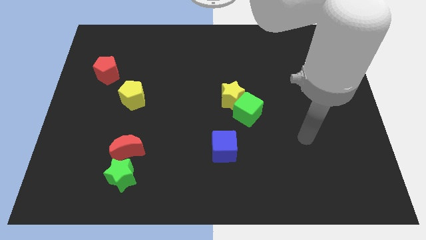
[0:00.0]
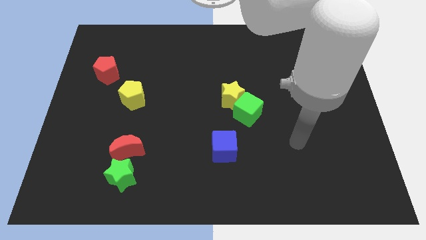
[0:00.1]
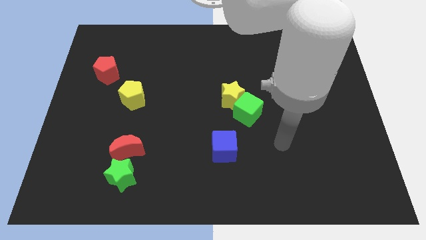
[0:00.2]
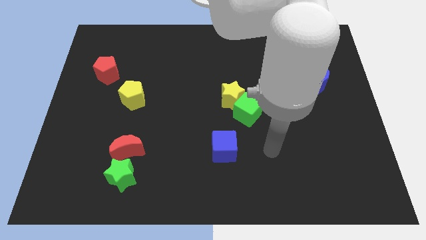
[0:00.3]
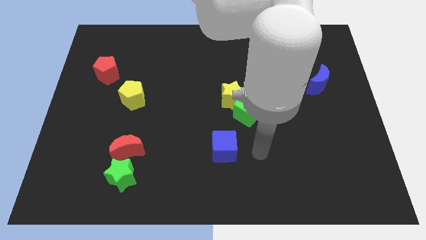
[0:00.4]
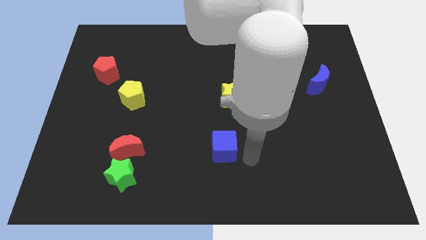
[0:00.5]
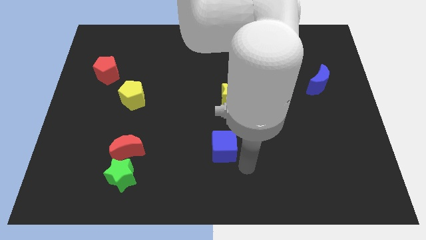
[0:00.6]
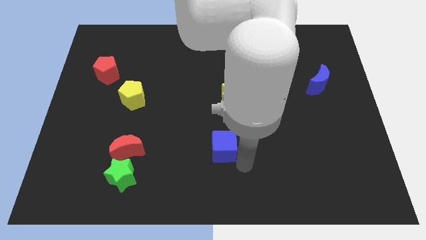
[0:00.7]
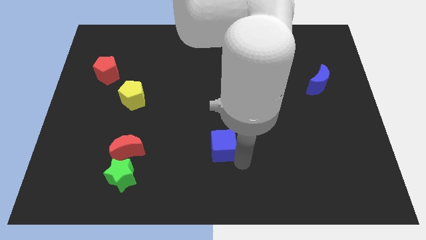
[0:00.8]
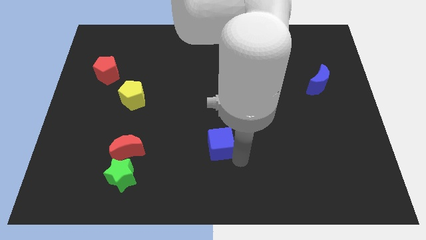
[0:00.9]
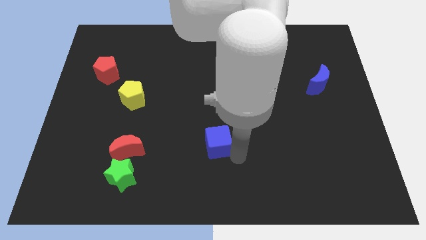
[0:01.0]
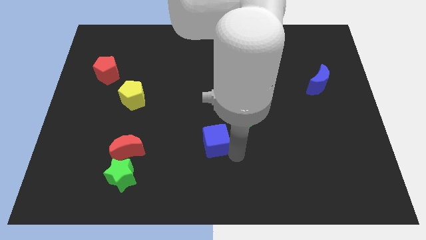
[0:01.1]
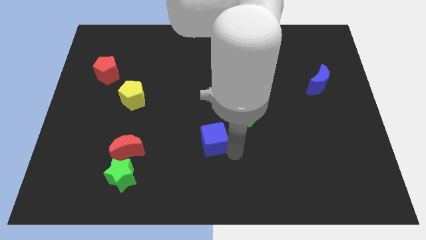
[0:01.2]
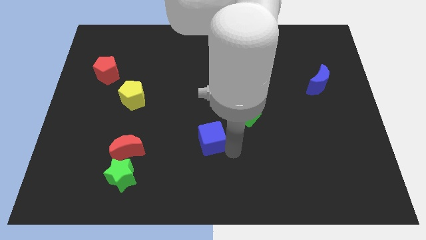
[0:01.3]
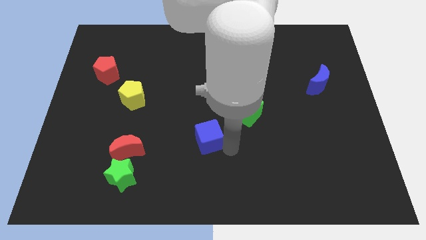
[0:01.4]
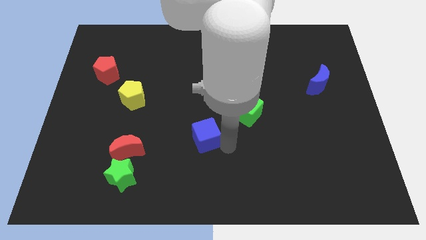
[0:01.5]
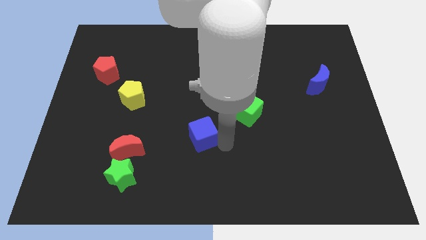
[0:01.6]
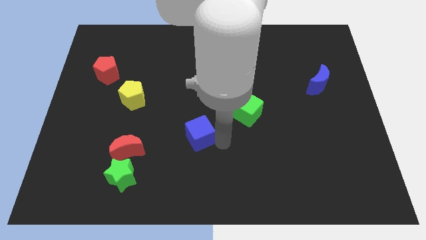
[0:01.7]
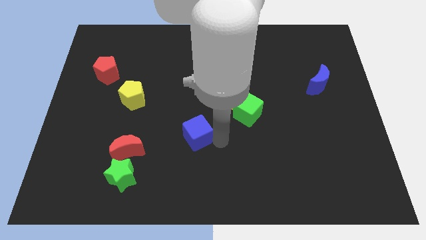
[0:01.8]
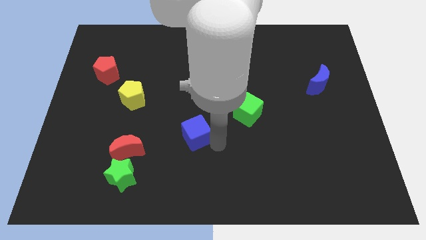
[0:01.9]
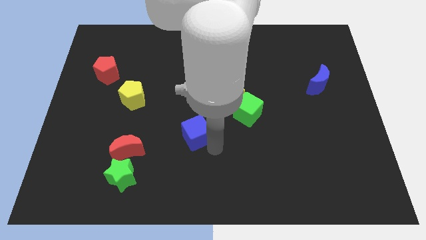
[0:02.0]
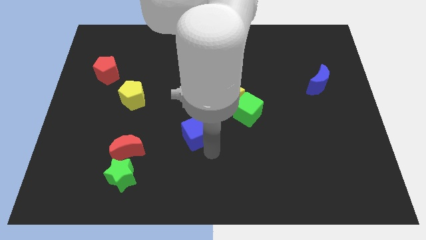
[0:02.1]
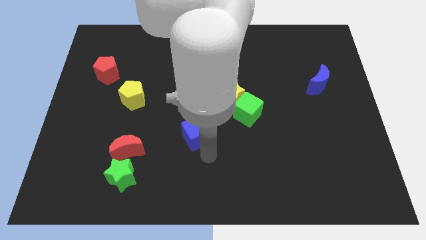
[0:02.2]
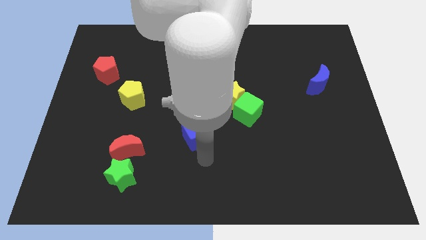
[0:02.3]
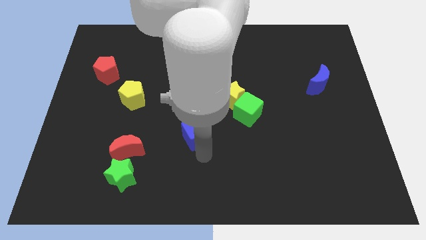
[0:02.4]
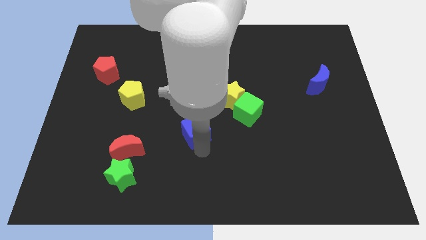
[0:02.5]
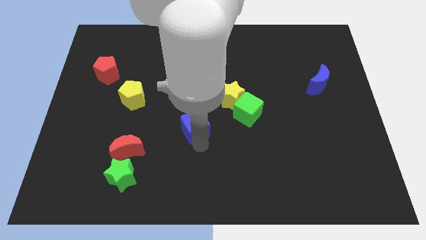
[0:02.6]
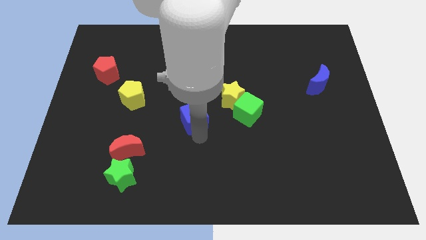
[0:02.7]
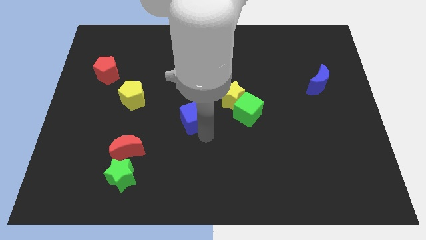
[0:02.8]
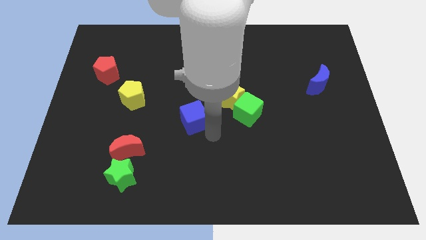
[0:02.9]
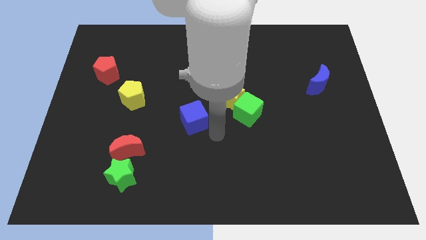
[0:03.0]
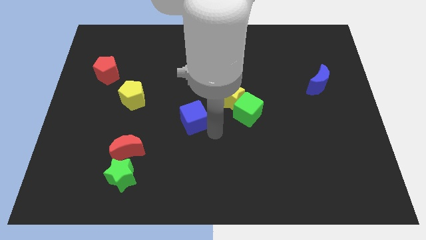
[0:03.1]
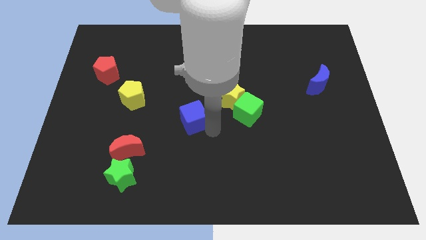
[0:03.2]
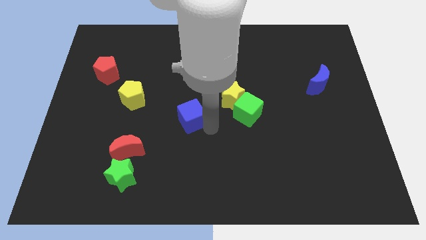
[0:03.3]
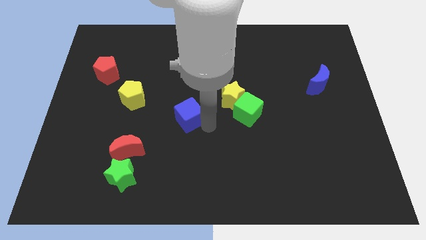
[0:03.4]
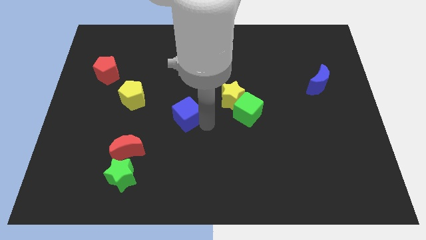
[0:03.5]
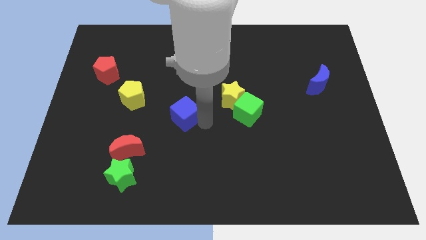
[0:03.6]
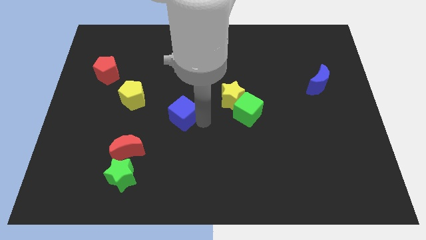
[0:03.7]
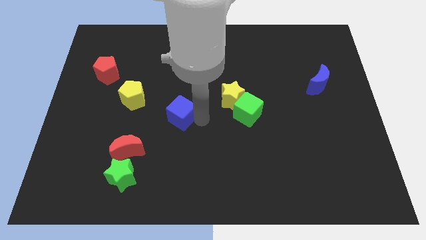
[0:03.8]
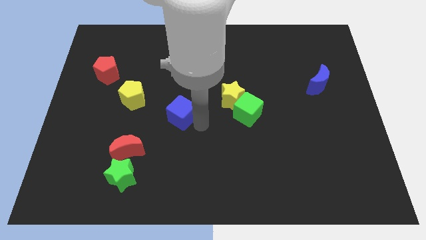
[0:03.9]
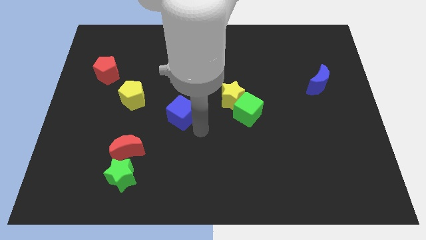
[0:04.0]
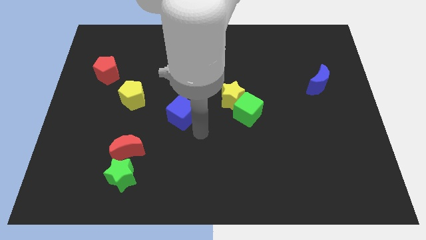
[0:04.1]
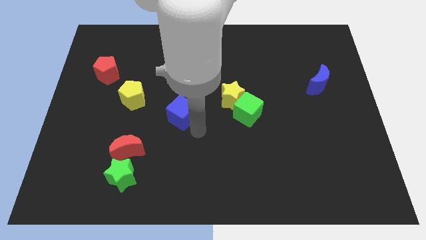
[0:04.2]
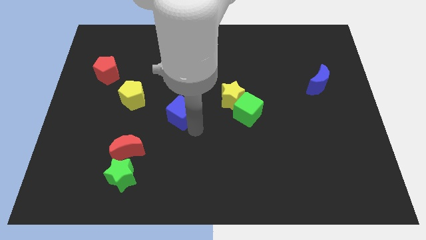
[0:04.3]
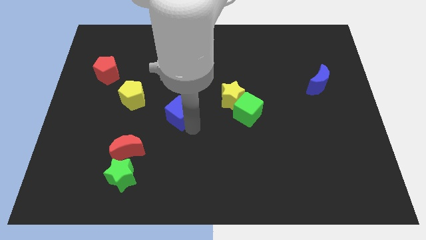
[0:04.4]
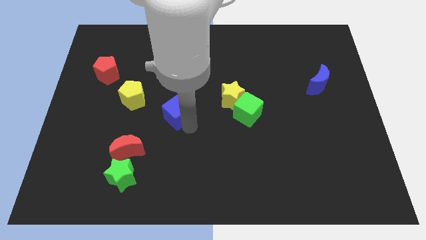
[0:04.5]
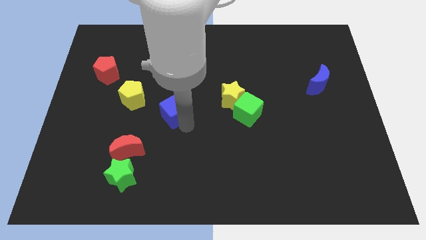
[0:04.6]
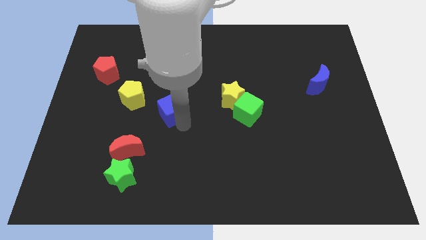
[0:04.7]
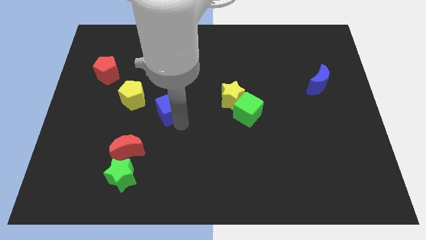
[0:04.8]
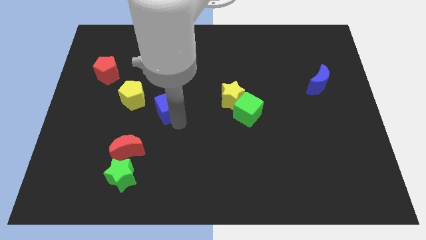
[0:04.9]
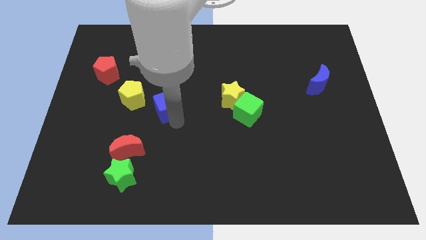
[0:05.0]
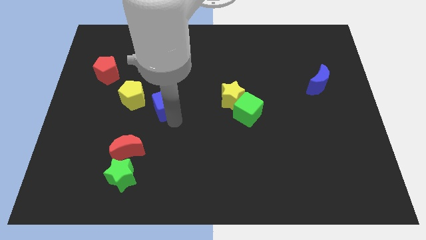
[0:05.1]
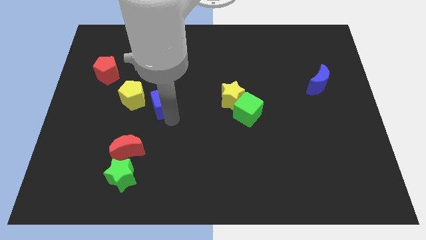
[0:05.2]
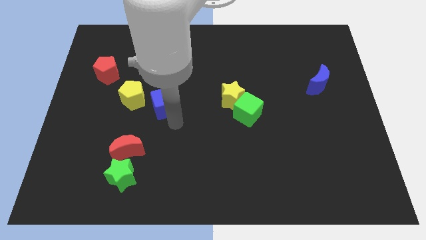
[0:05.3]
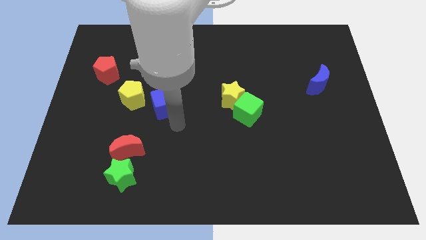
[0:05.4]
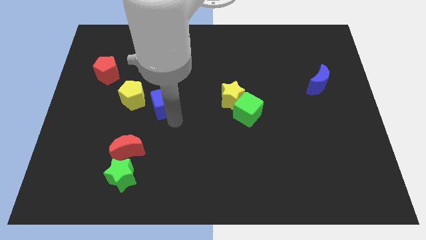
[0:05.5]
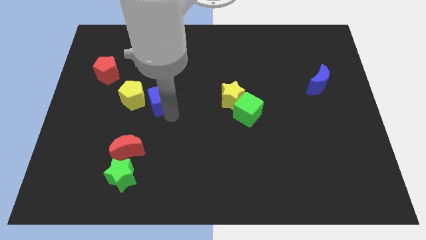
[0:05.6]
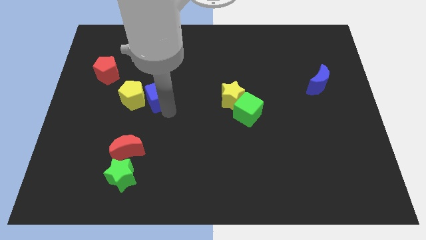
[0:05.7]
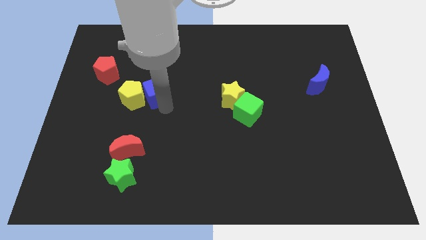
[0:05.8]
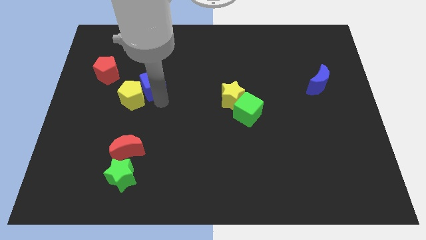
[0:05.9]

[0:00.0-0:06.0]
push the blue cube just right of the red pentagon

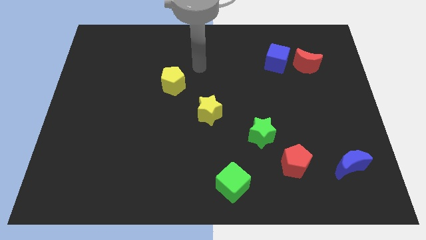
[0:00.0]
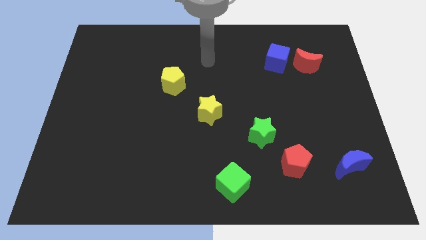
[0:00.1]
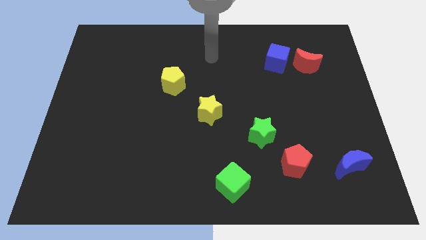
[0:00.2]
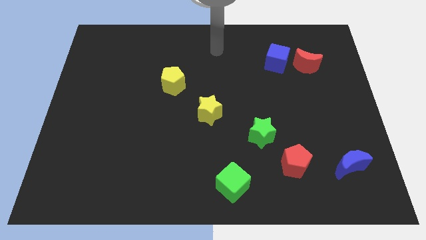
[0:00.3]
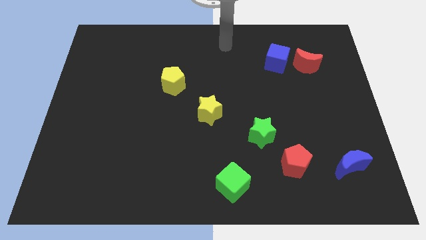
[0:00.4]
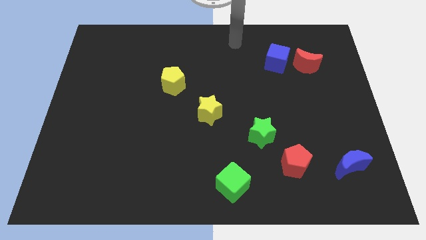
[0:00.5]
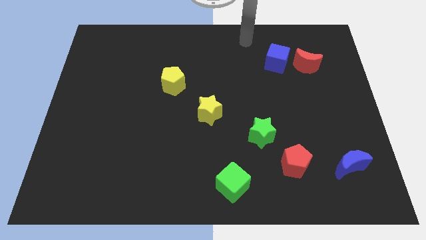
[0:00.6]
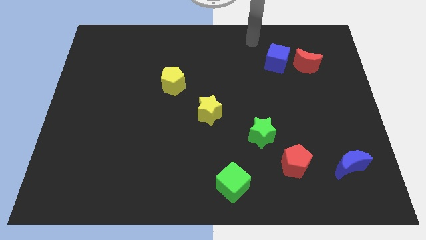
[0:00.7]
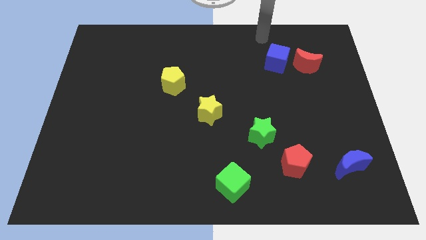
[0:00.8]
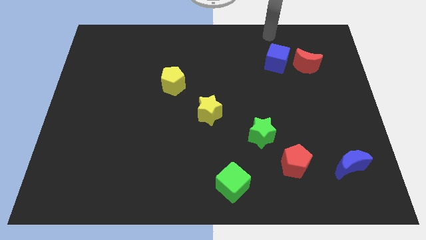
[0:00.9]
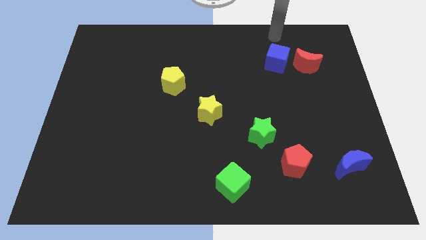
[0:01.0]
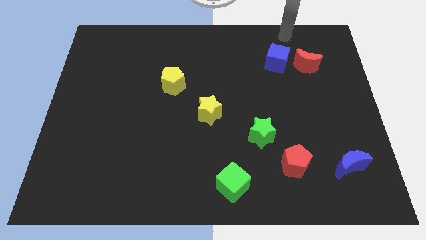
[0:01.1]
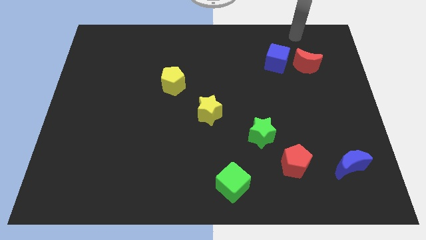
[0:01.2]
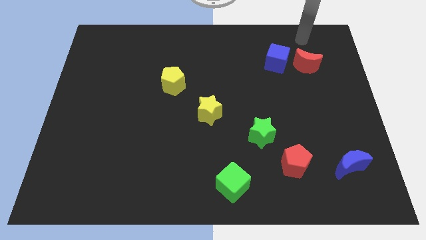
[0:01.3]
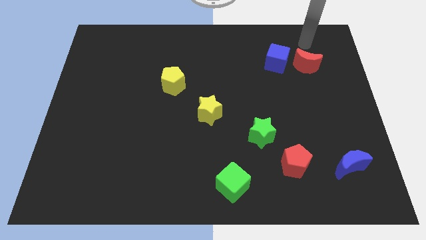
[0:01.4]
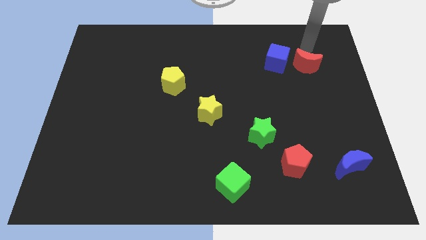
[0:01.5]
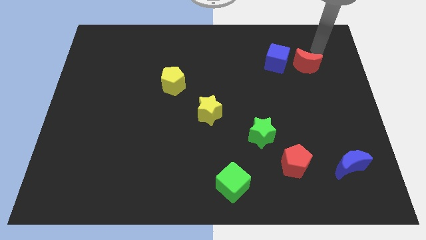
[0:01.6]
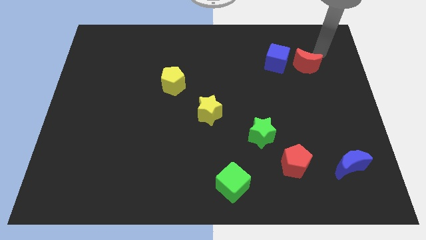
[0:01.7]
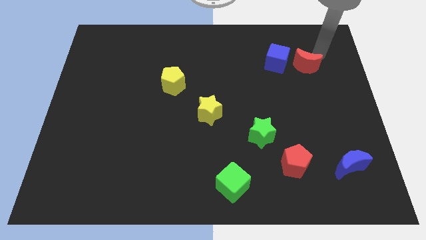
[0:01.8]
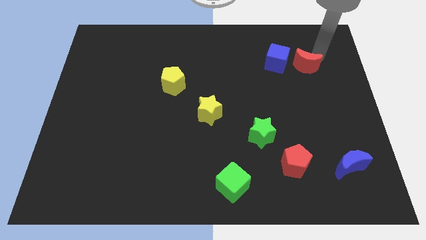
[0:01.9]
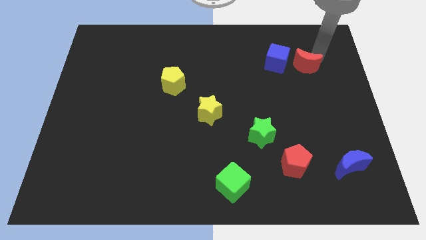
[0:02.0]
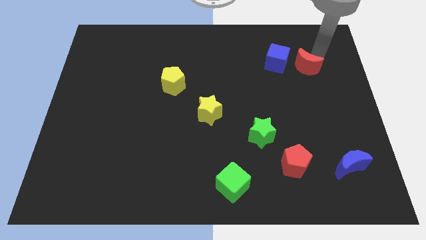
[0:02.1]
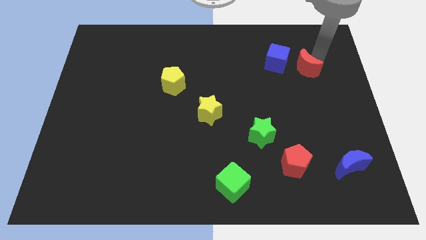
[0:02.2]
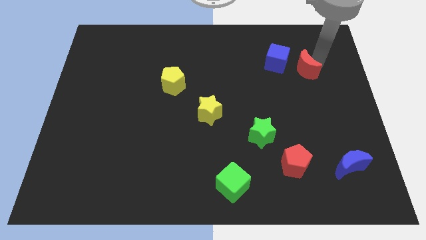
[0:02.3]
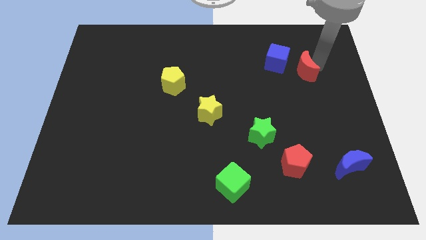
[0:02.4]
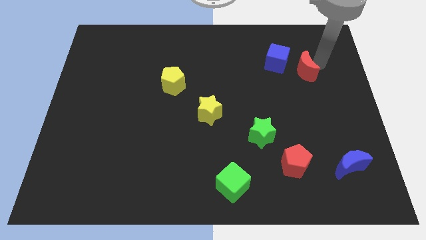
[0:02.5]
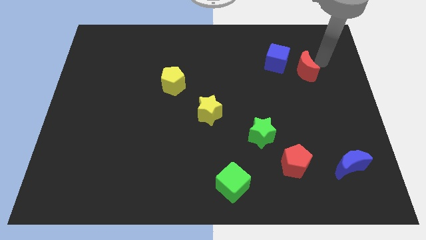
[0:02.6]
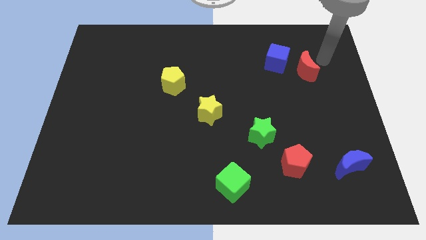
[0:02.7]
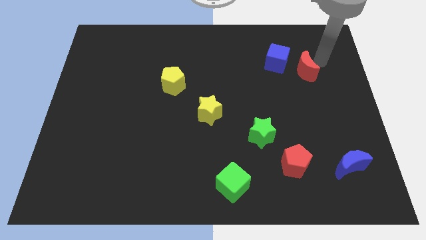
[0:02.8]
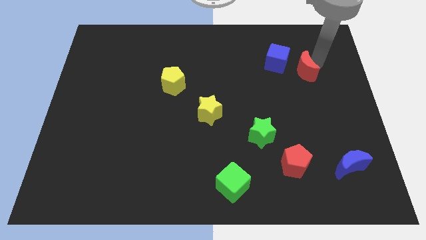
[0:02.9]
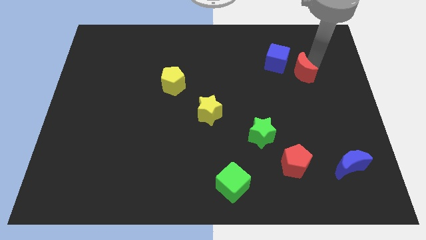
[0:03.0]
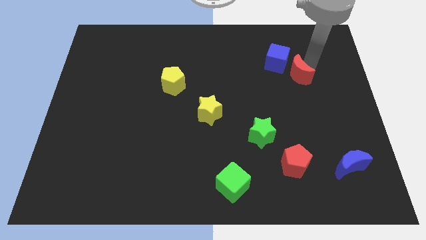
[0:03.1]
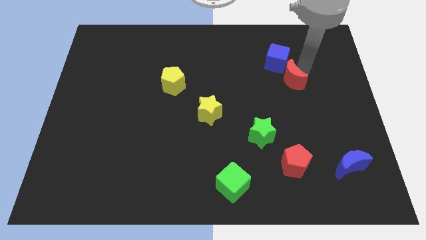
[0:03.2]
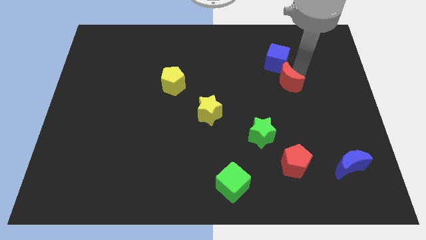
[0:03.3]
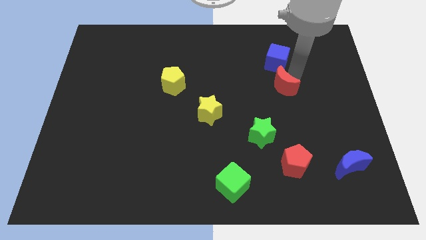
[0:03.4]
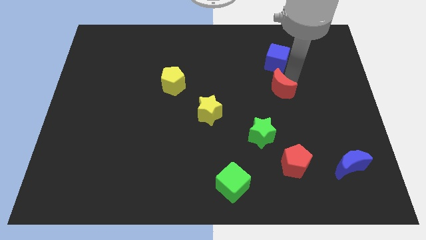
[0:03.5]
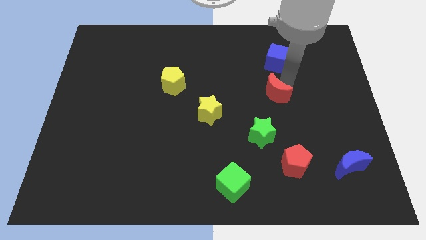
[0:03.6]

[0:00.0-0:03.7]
slide the red moon to the top of the green star
